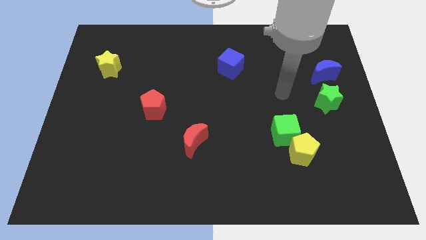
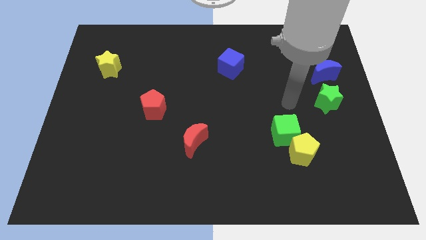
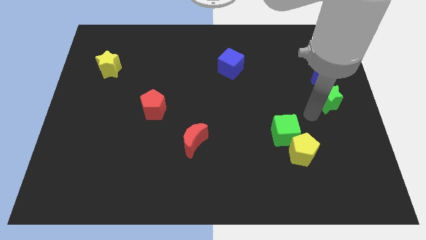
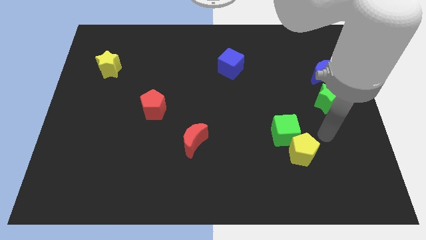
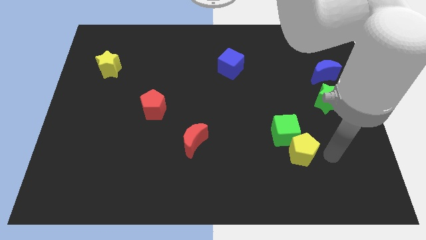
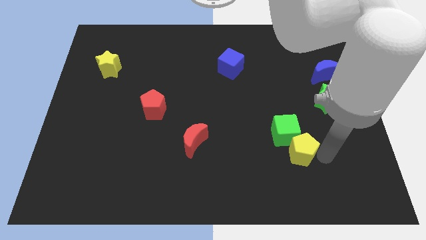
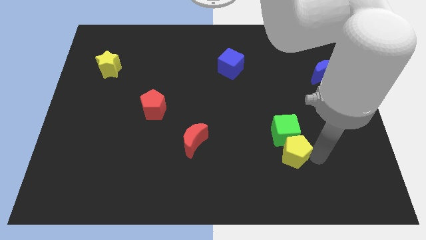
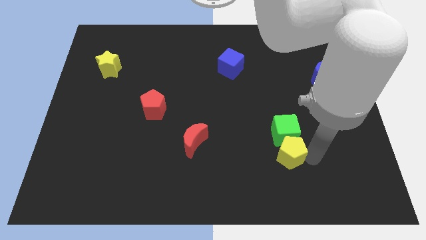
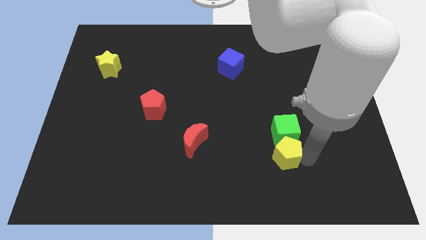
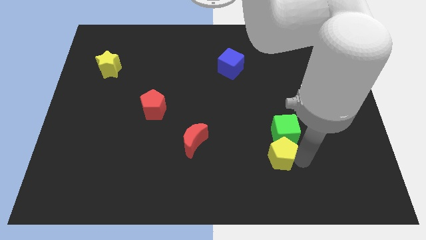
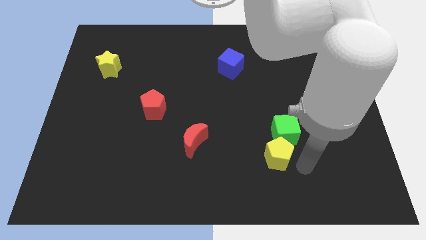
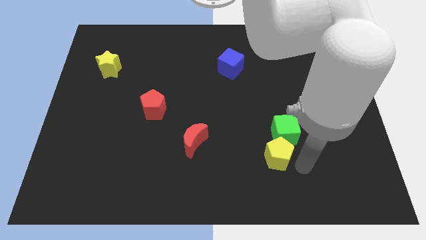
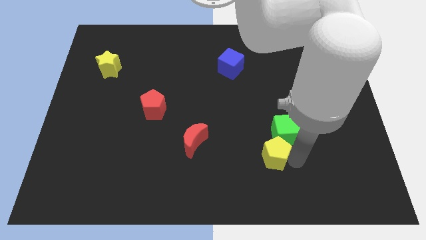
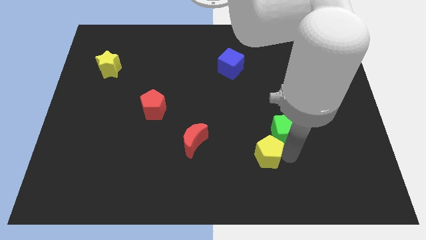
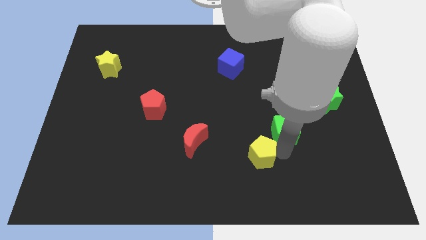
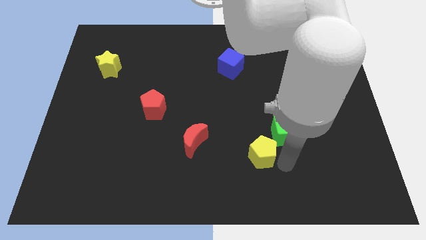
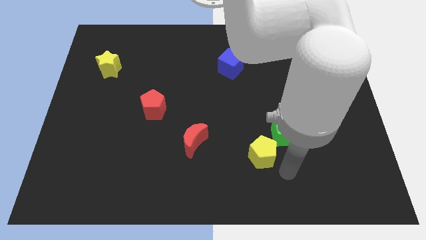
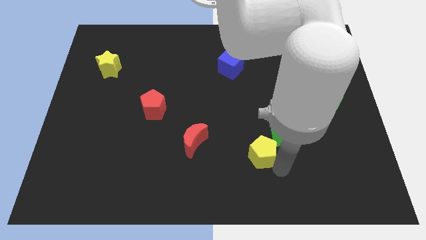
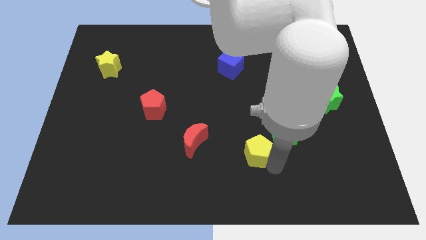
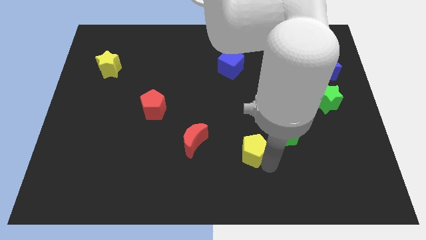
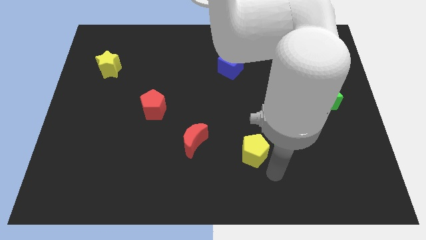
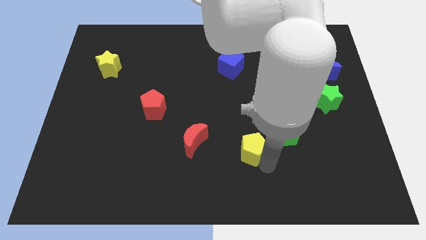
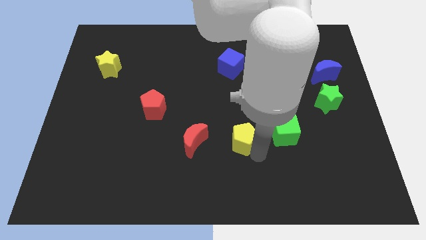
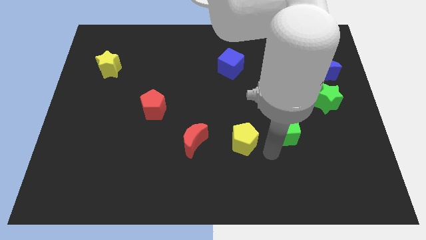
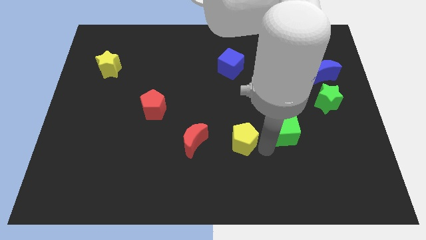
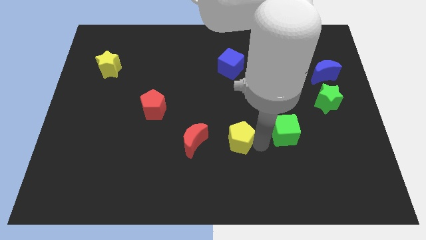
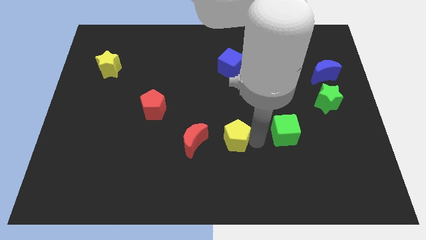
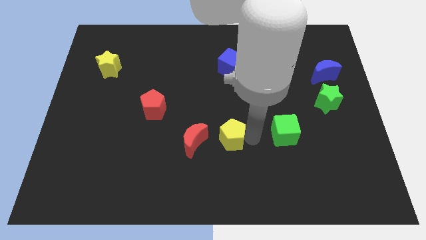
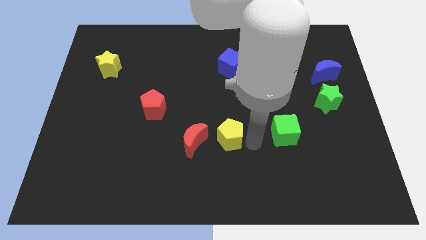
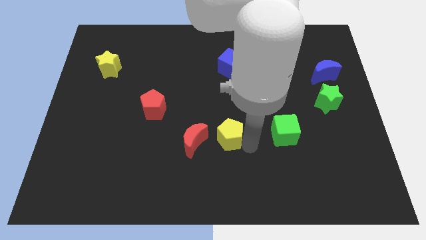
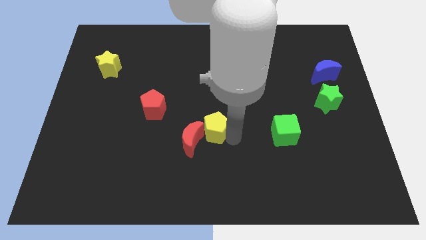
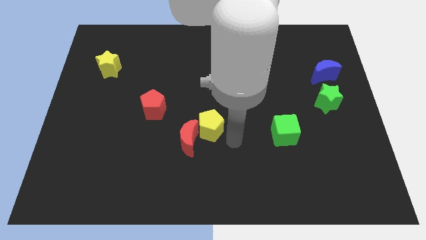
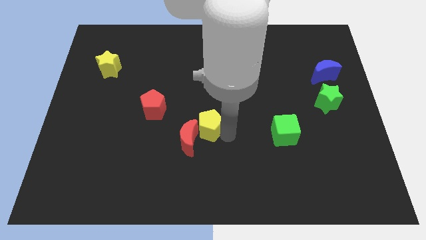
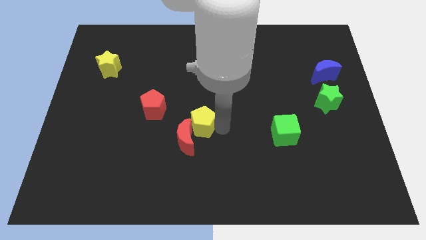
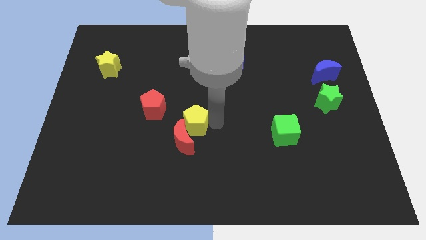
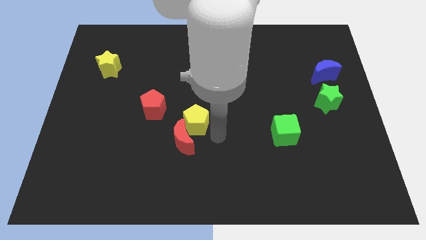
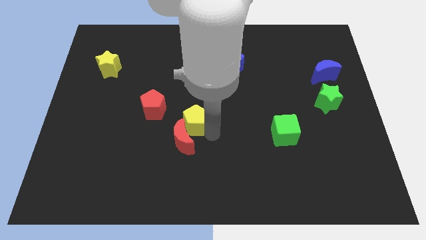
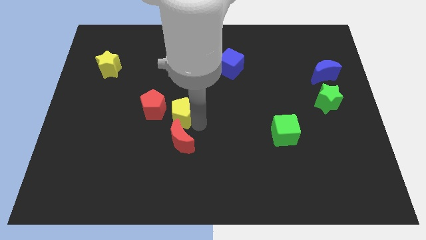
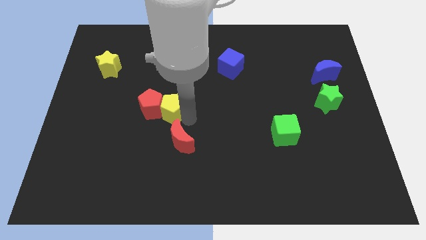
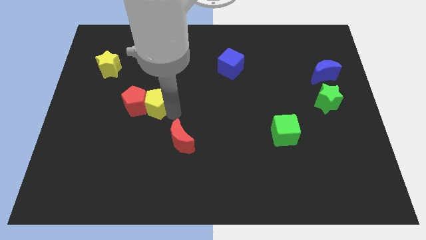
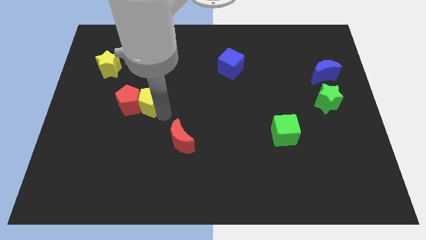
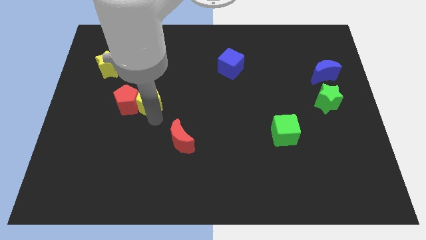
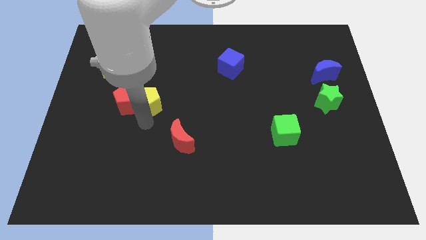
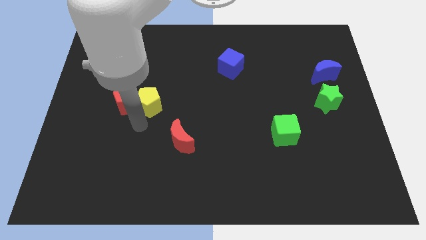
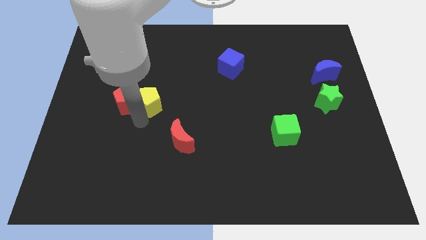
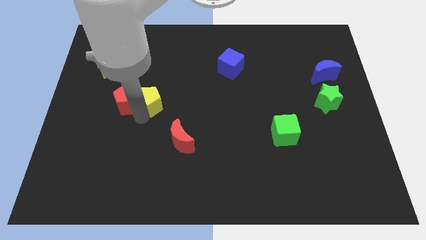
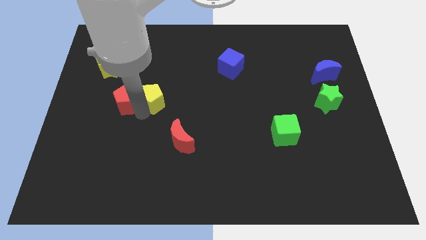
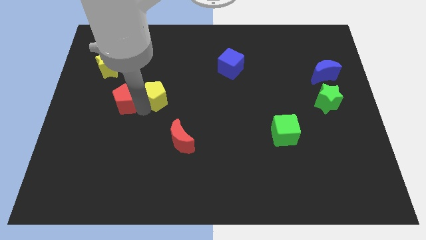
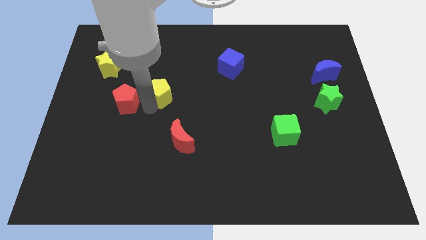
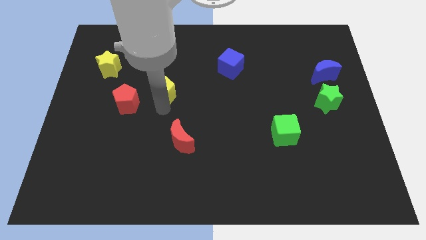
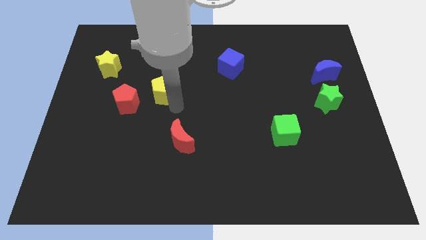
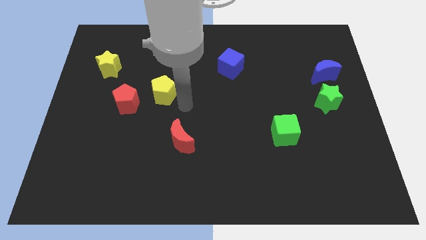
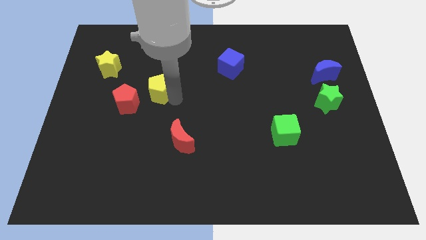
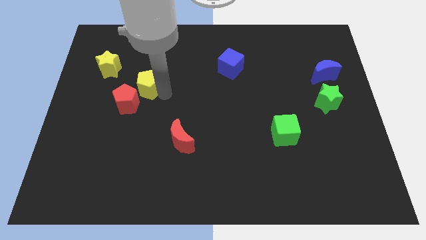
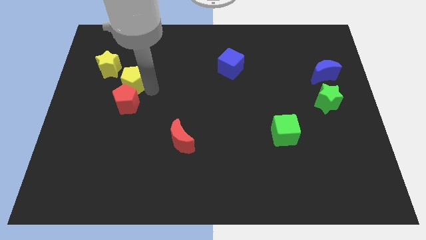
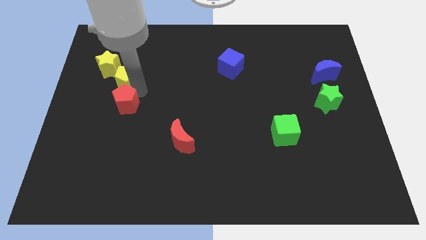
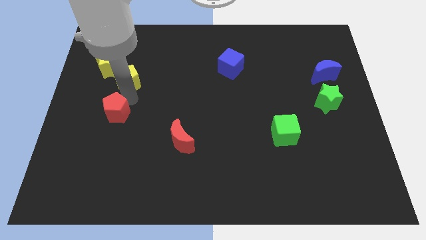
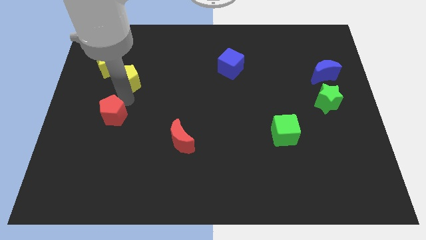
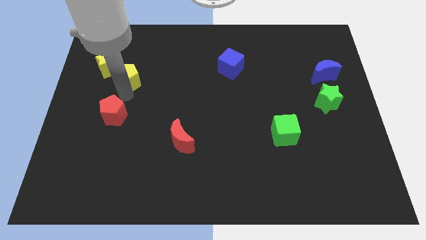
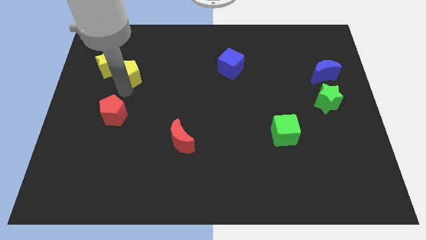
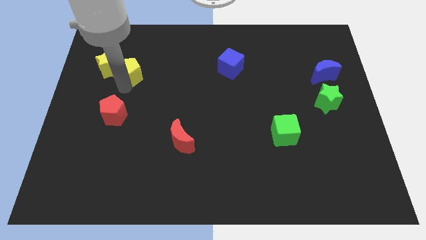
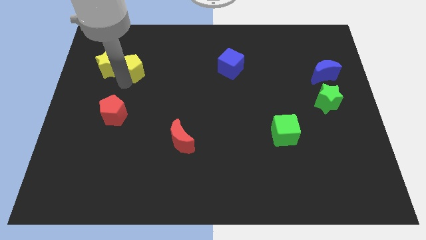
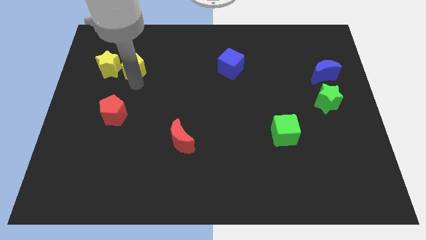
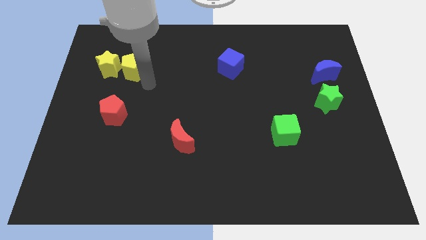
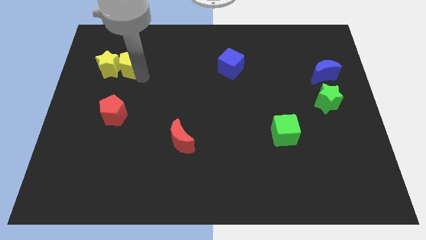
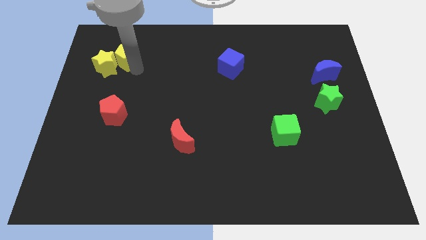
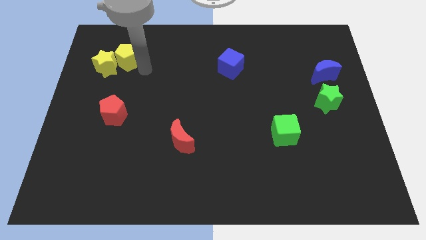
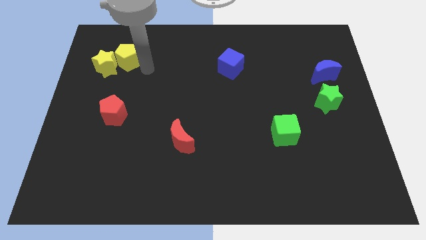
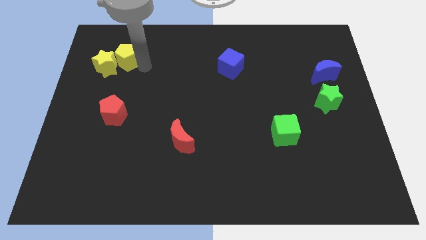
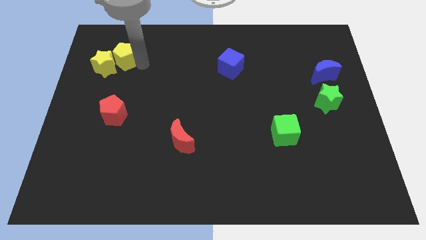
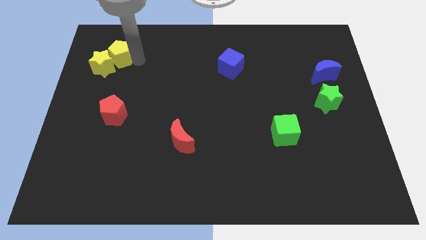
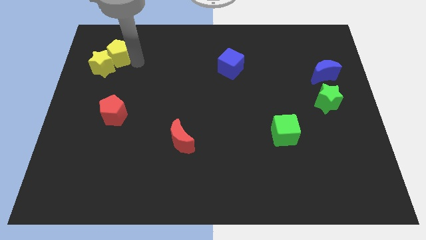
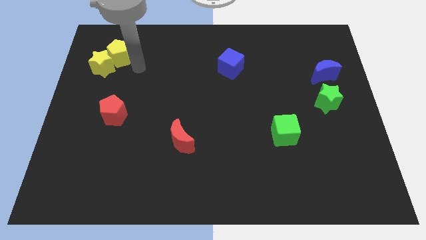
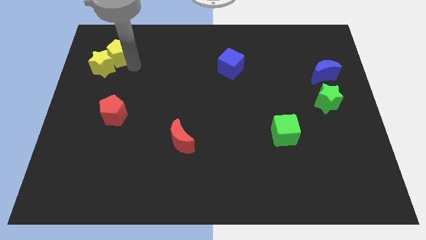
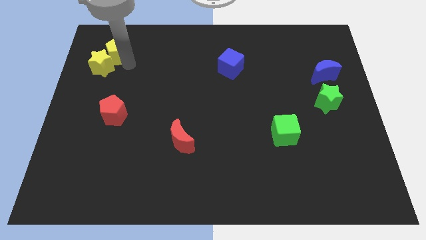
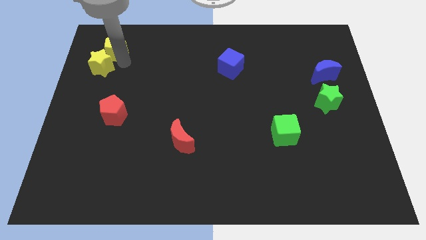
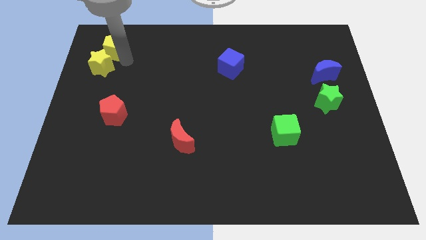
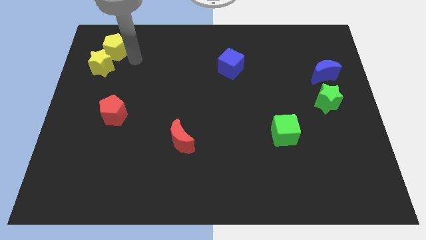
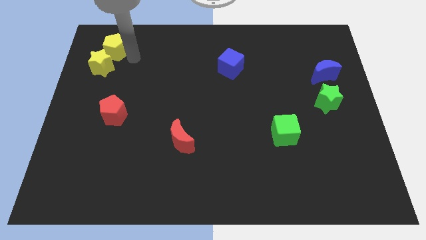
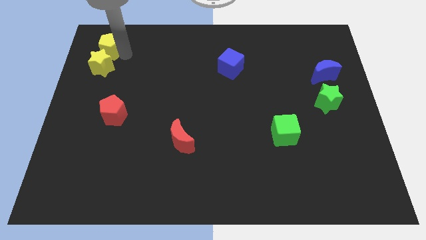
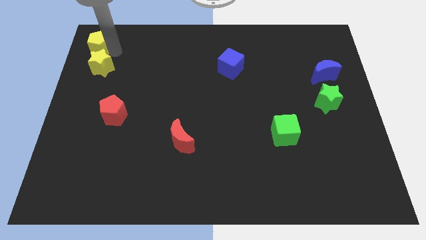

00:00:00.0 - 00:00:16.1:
put the yellow pentagon to the upper left corner
